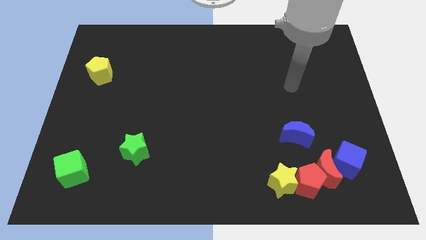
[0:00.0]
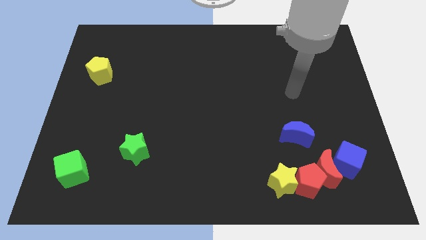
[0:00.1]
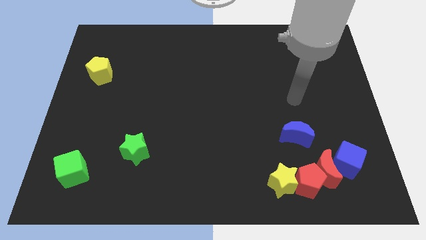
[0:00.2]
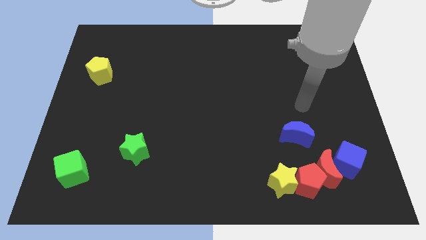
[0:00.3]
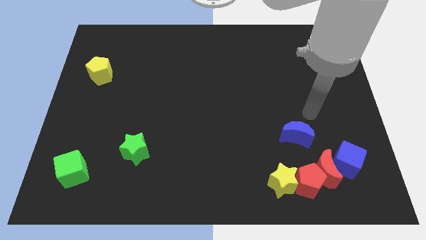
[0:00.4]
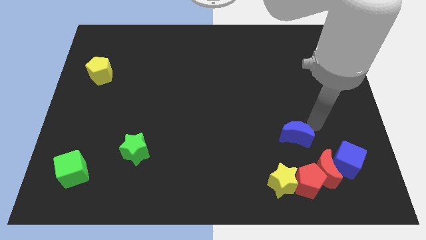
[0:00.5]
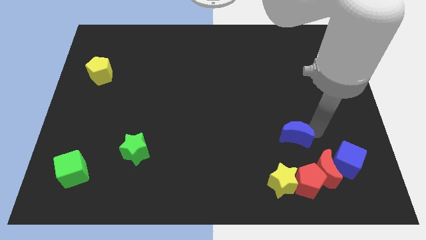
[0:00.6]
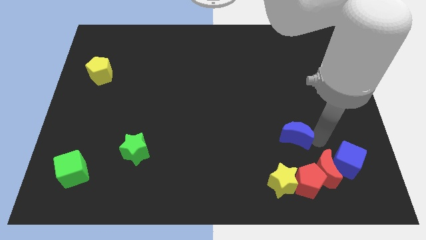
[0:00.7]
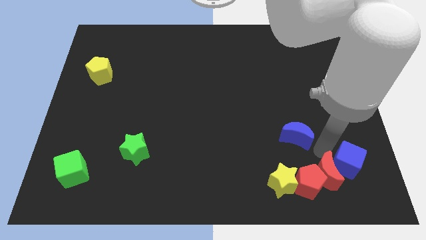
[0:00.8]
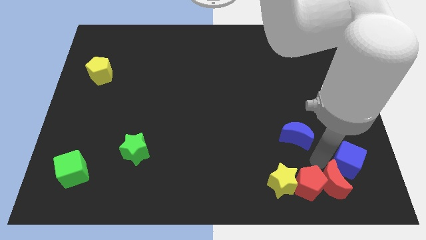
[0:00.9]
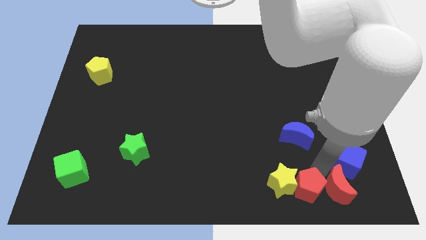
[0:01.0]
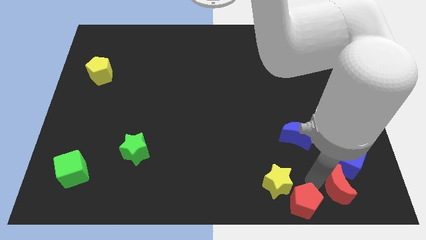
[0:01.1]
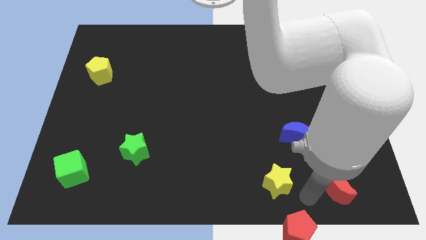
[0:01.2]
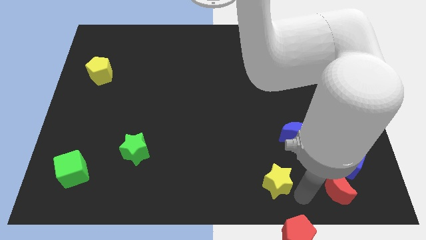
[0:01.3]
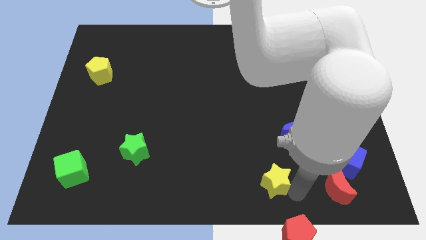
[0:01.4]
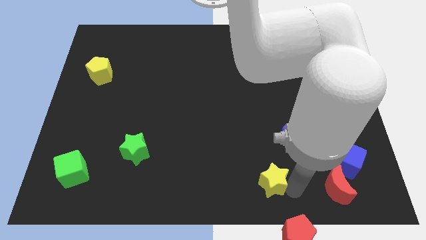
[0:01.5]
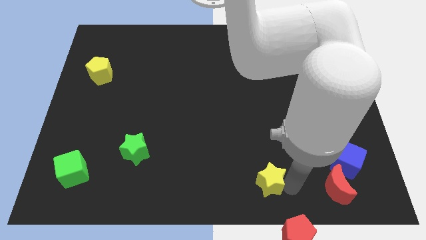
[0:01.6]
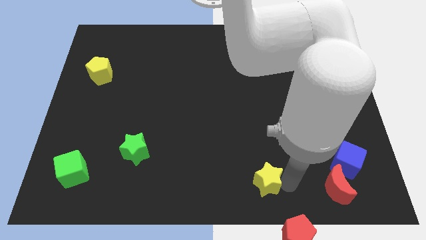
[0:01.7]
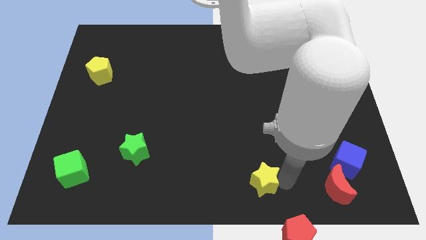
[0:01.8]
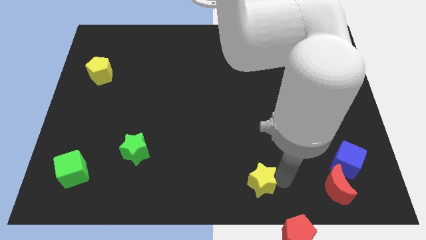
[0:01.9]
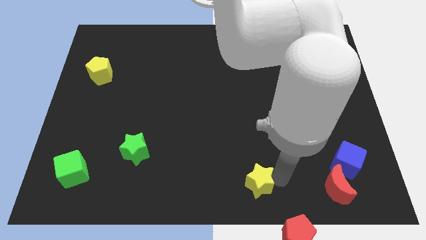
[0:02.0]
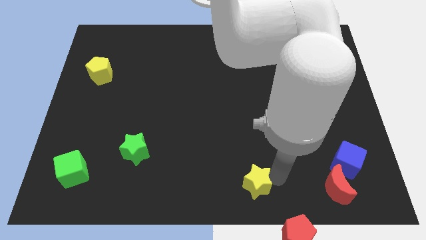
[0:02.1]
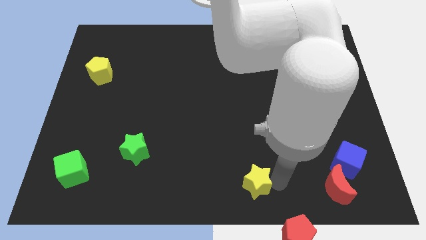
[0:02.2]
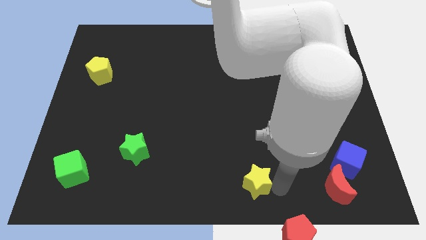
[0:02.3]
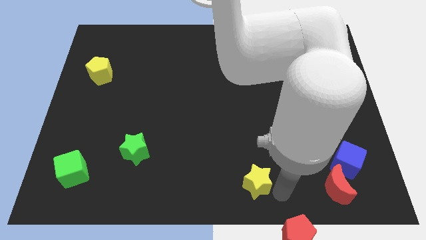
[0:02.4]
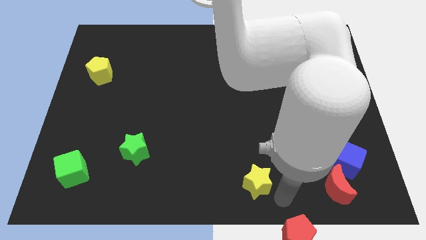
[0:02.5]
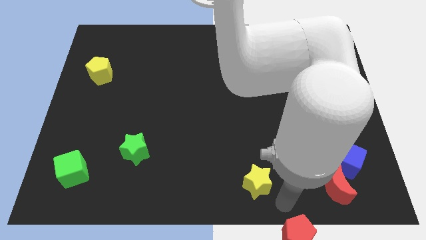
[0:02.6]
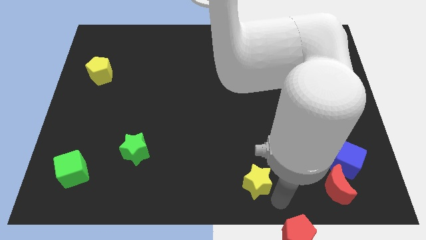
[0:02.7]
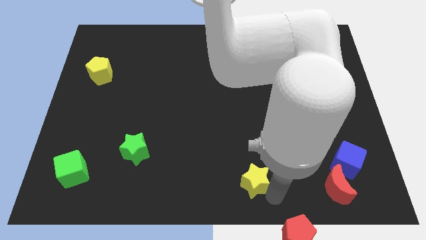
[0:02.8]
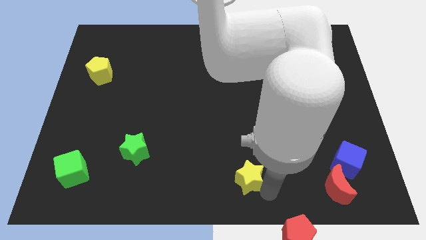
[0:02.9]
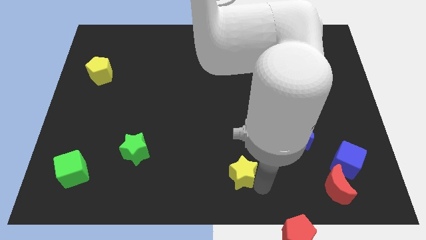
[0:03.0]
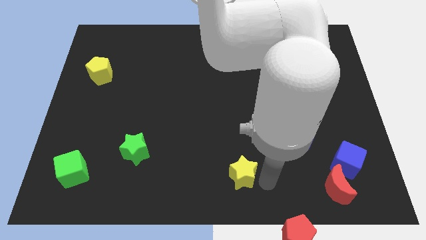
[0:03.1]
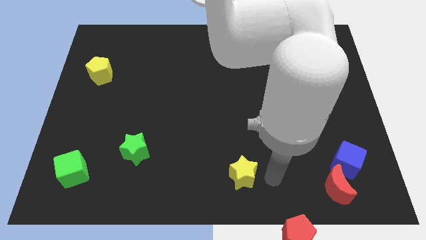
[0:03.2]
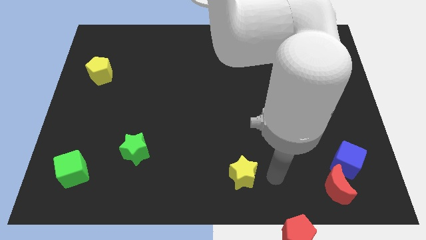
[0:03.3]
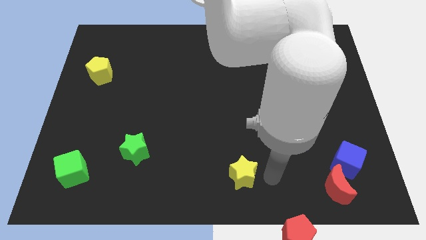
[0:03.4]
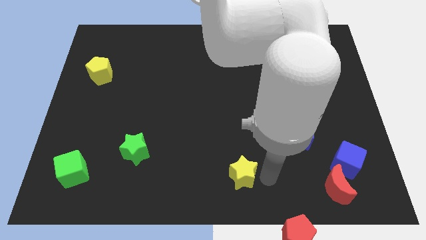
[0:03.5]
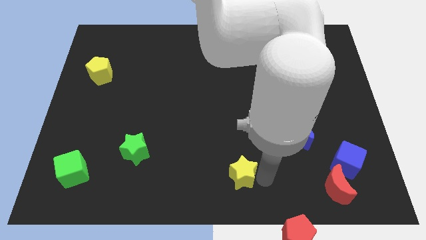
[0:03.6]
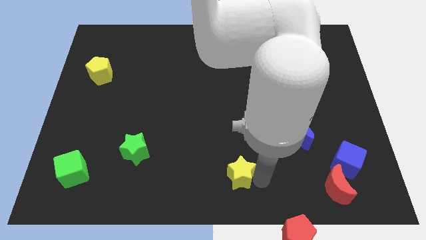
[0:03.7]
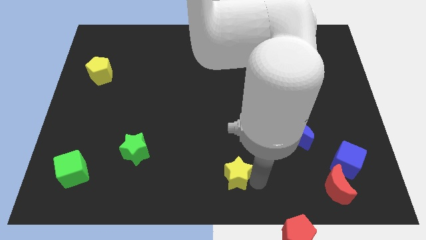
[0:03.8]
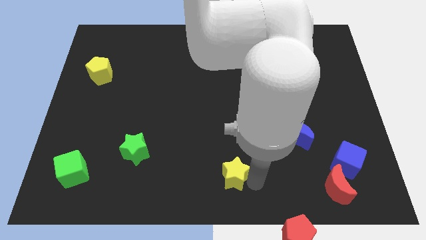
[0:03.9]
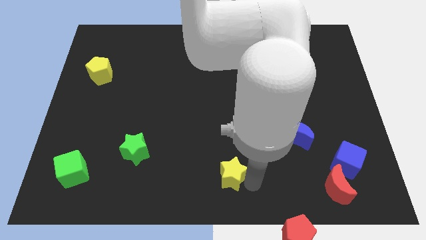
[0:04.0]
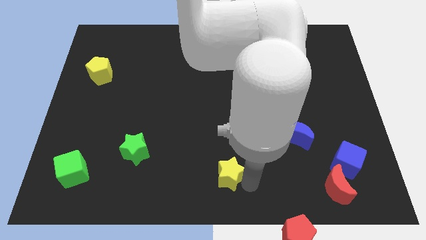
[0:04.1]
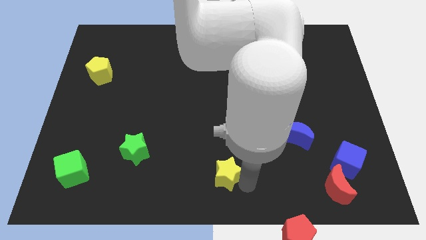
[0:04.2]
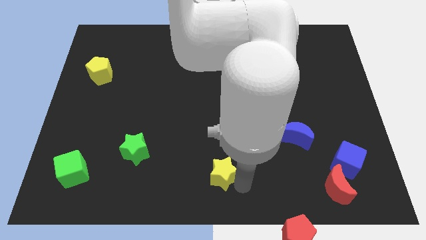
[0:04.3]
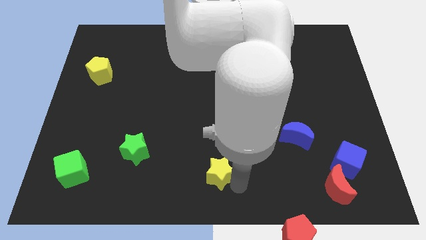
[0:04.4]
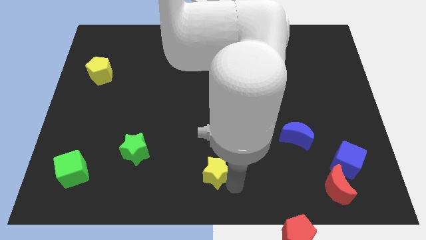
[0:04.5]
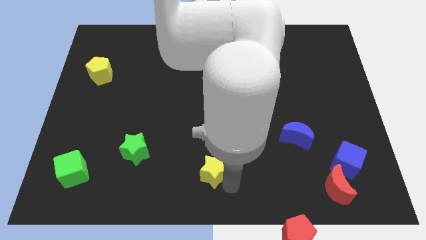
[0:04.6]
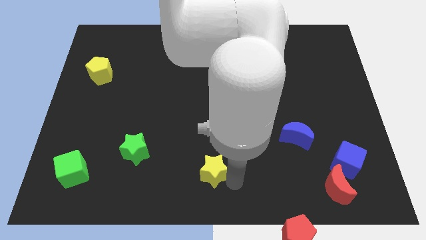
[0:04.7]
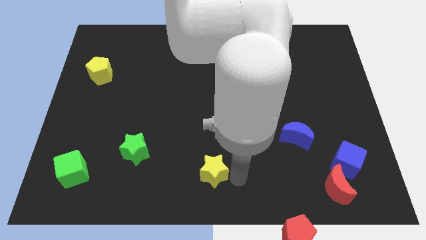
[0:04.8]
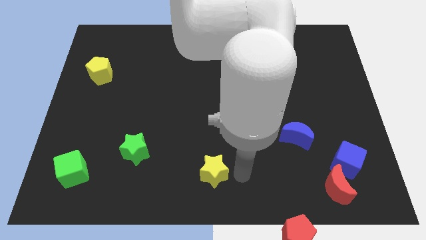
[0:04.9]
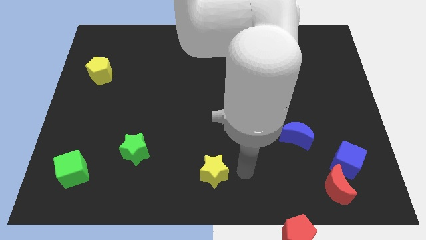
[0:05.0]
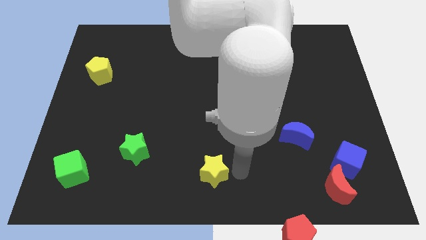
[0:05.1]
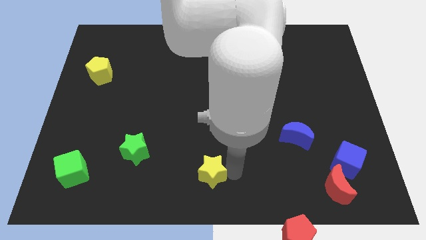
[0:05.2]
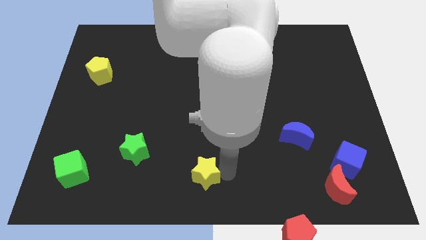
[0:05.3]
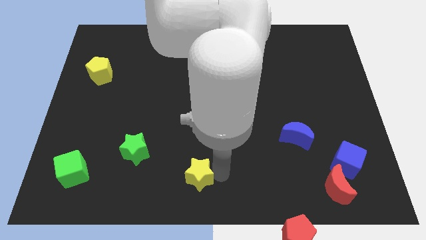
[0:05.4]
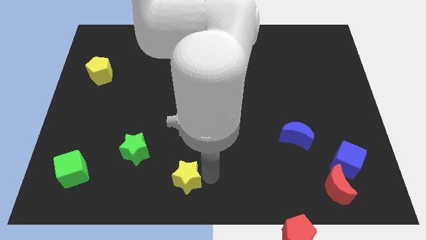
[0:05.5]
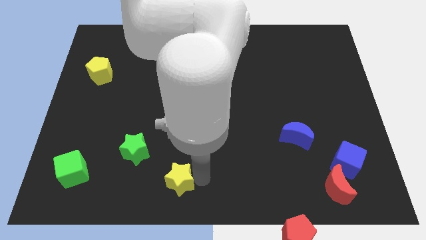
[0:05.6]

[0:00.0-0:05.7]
slide the yellow star to the left

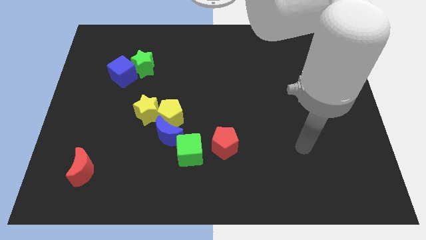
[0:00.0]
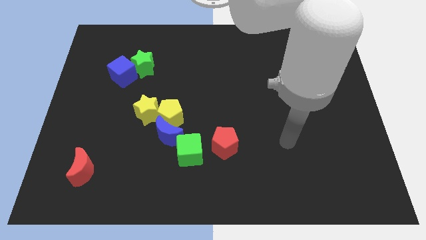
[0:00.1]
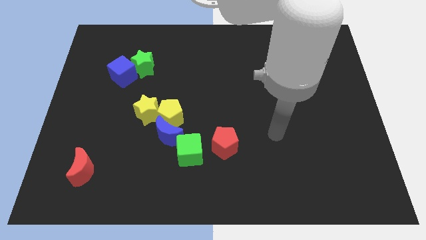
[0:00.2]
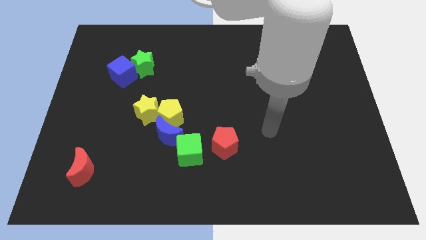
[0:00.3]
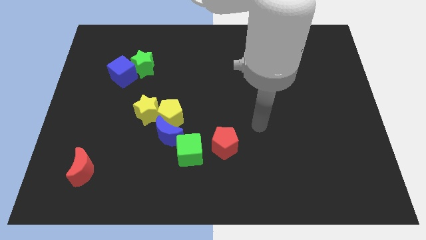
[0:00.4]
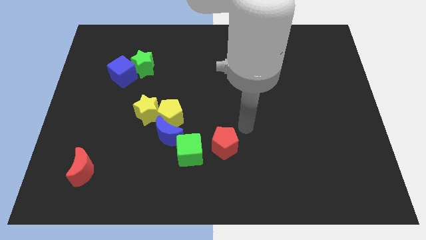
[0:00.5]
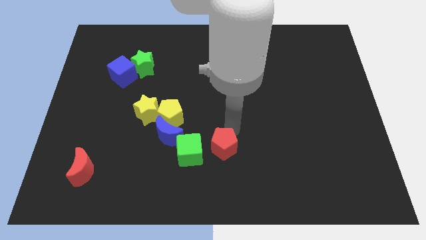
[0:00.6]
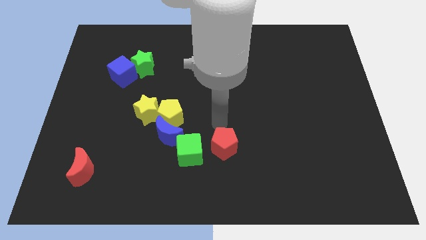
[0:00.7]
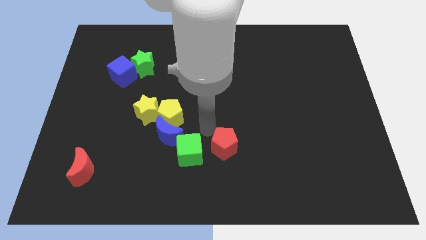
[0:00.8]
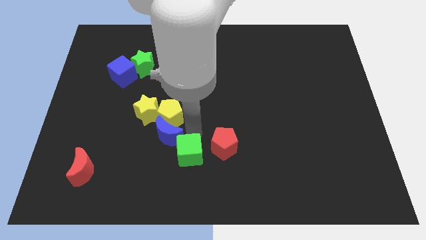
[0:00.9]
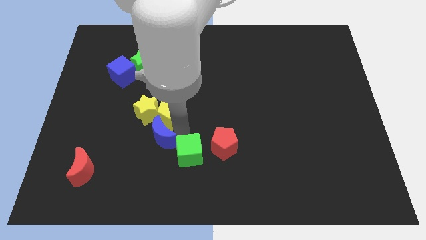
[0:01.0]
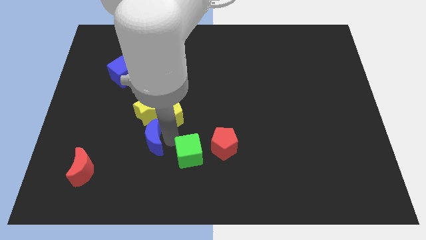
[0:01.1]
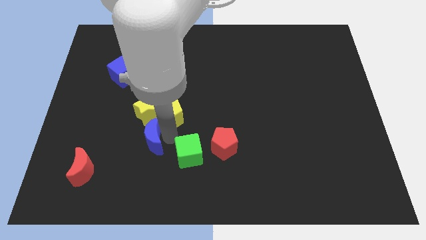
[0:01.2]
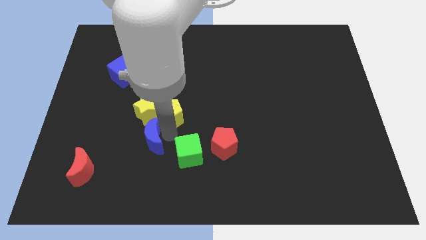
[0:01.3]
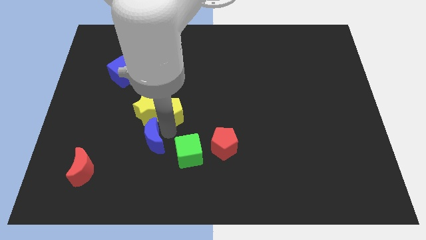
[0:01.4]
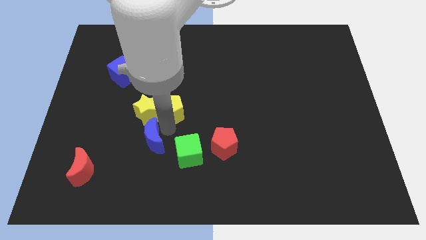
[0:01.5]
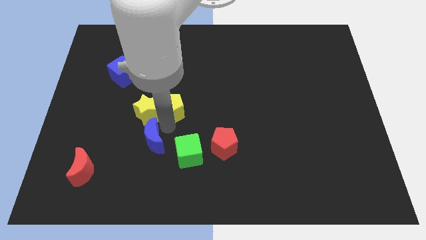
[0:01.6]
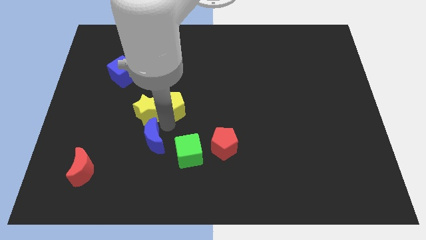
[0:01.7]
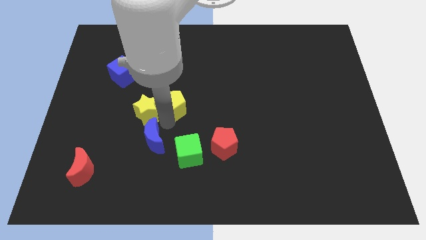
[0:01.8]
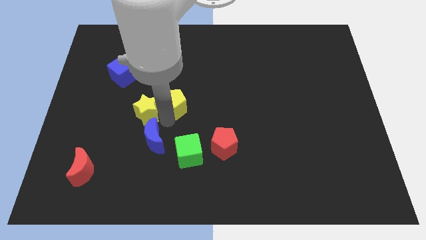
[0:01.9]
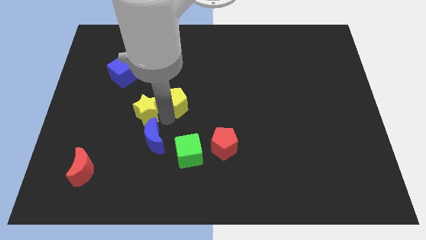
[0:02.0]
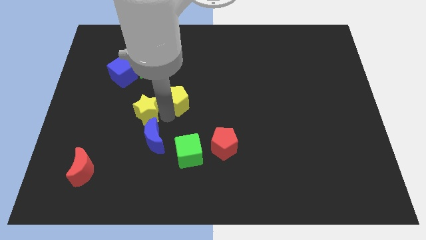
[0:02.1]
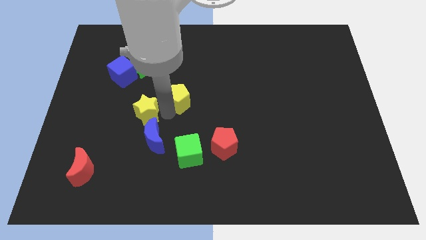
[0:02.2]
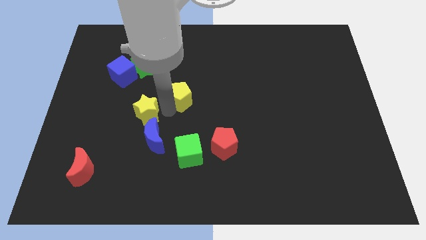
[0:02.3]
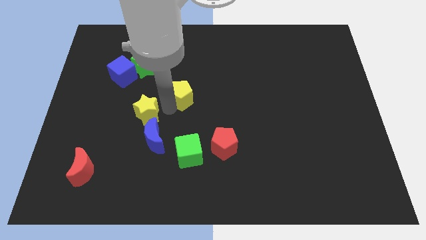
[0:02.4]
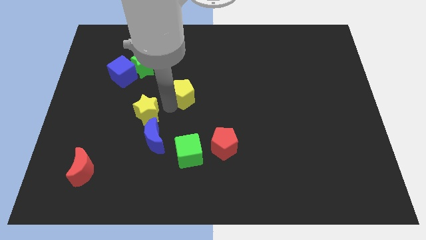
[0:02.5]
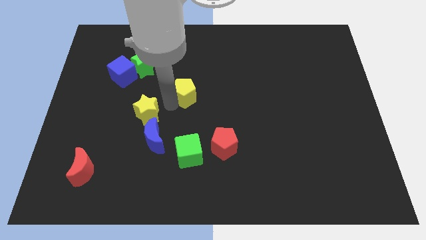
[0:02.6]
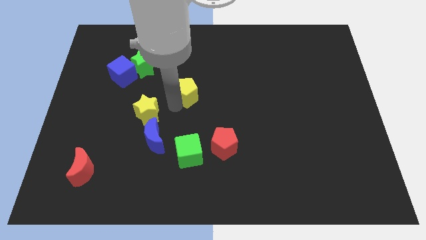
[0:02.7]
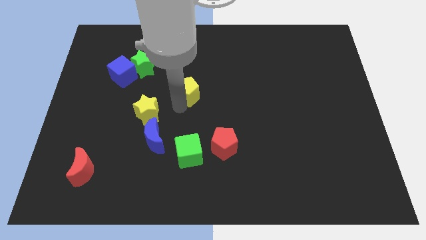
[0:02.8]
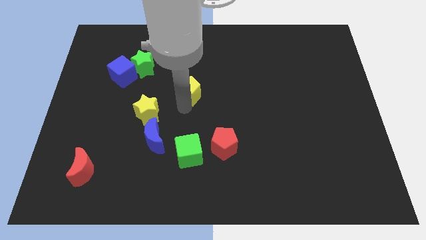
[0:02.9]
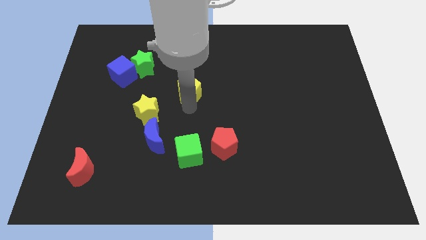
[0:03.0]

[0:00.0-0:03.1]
move the yellow pentagon up a little
